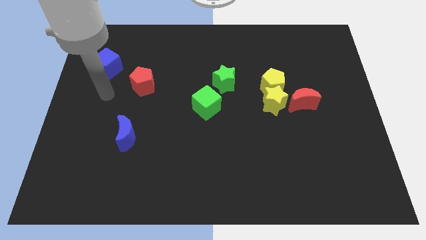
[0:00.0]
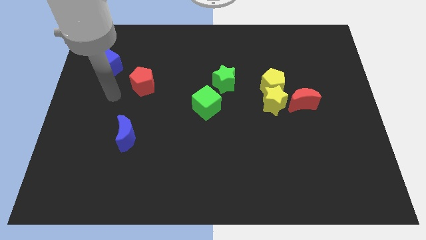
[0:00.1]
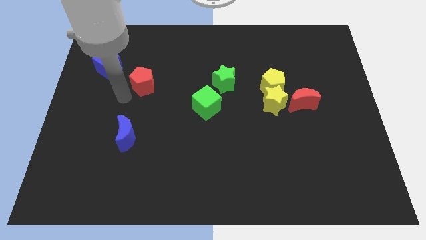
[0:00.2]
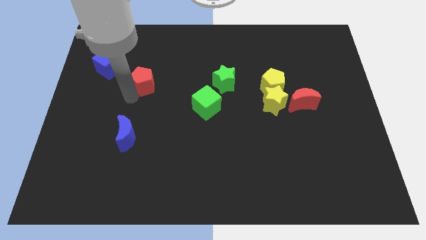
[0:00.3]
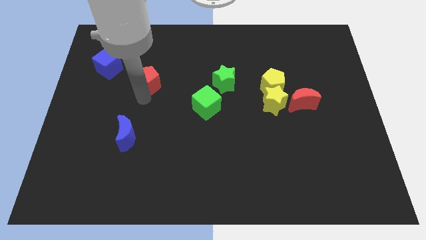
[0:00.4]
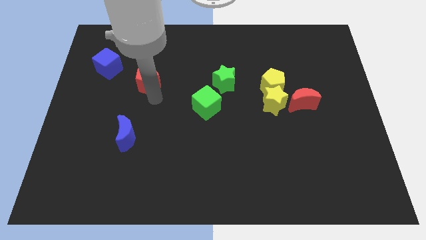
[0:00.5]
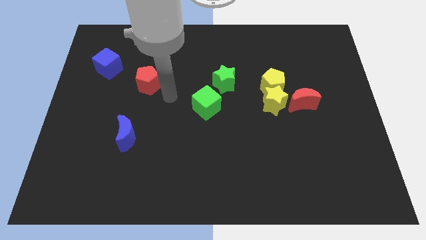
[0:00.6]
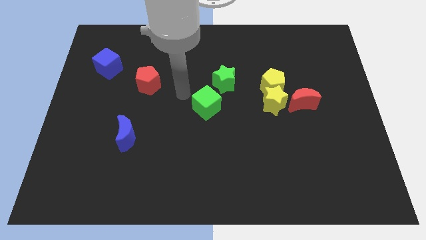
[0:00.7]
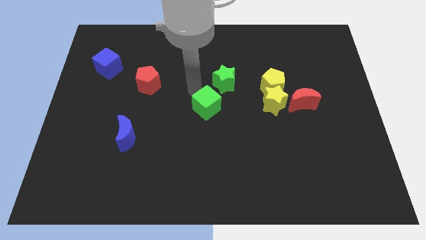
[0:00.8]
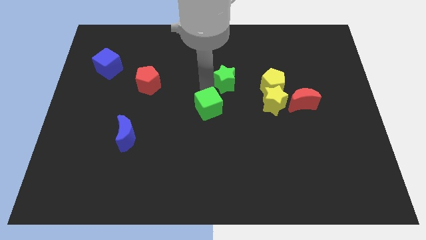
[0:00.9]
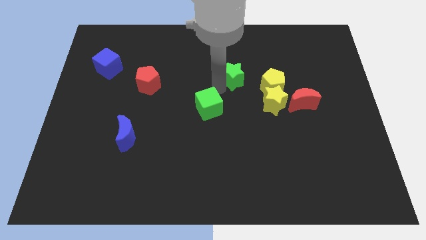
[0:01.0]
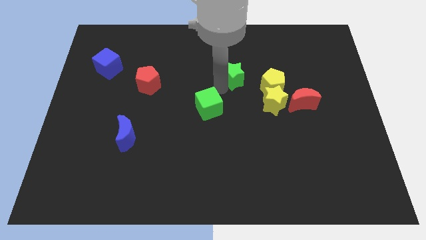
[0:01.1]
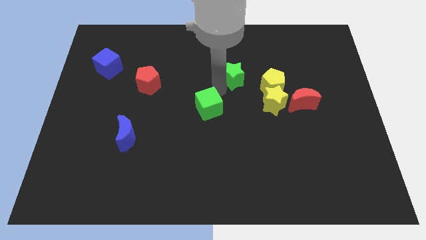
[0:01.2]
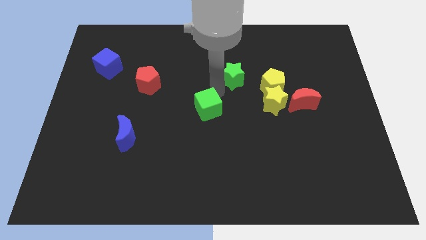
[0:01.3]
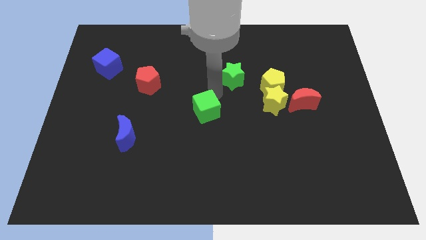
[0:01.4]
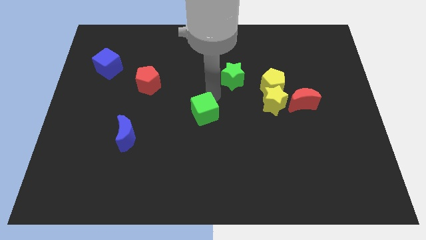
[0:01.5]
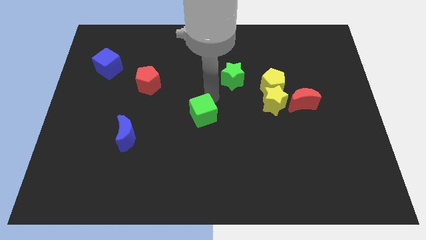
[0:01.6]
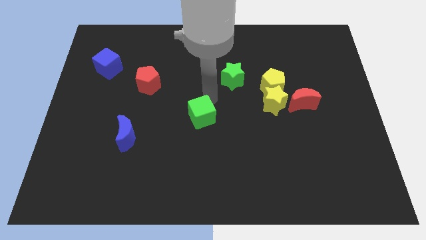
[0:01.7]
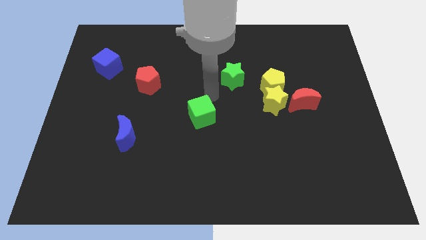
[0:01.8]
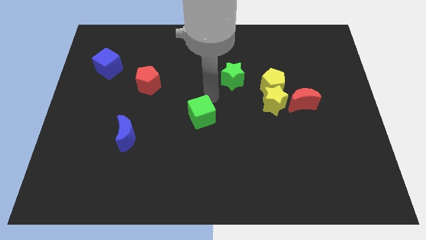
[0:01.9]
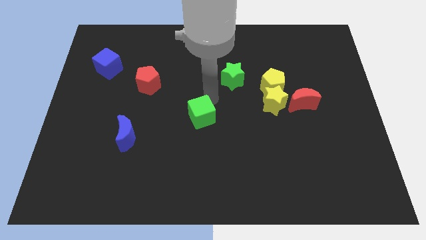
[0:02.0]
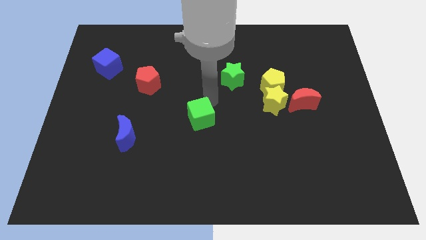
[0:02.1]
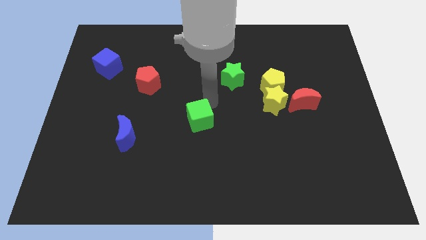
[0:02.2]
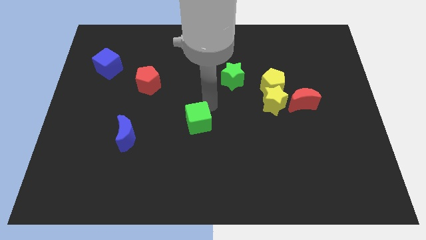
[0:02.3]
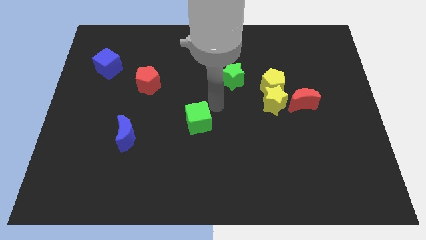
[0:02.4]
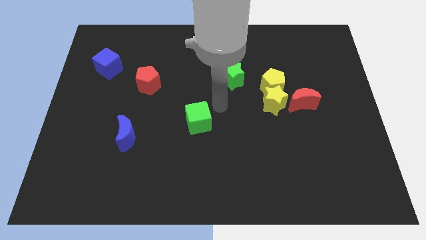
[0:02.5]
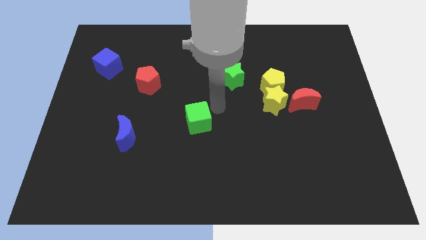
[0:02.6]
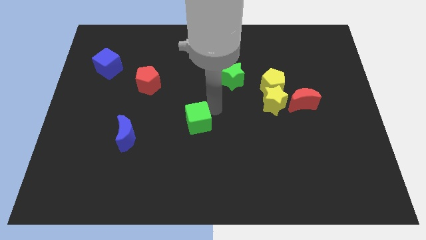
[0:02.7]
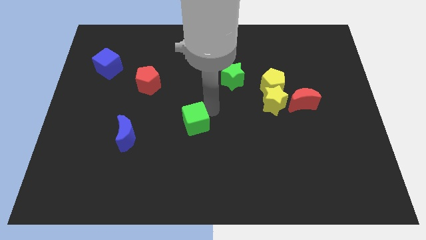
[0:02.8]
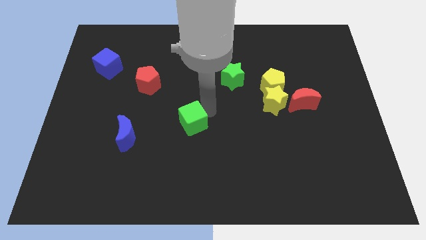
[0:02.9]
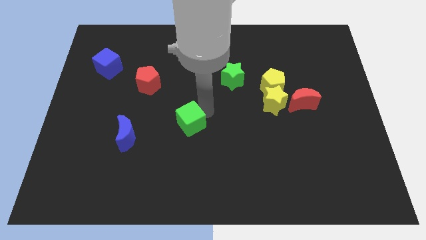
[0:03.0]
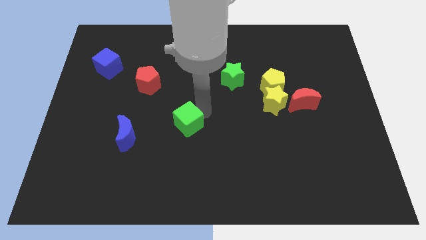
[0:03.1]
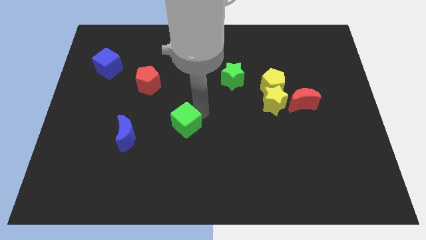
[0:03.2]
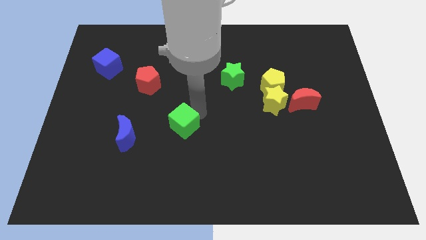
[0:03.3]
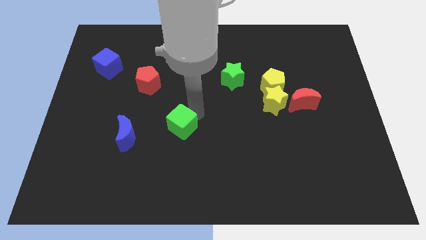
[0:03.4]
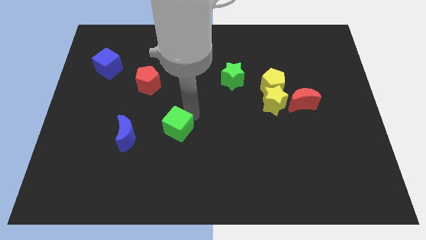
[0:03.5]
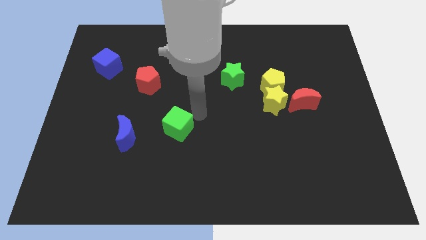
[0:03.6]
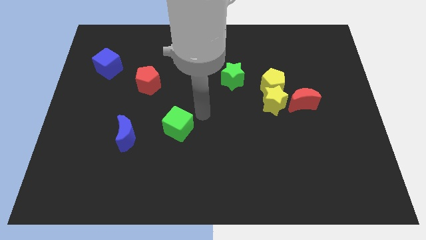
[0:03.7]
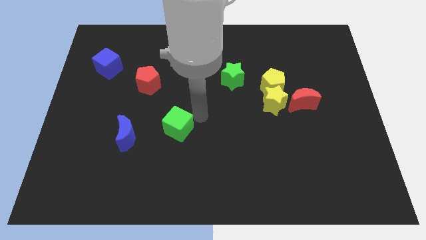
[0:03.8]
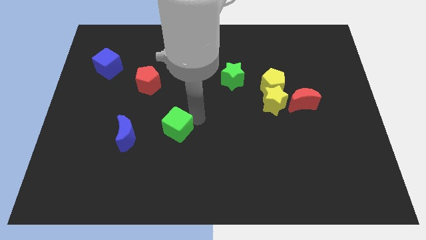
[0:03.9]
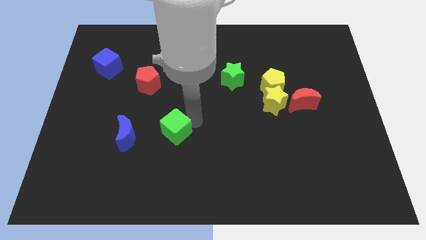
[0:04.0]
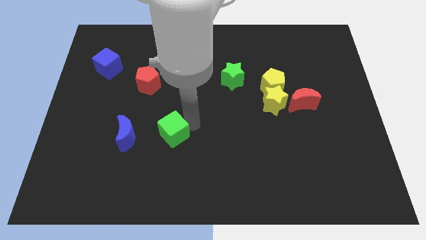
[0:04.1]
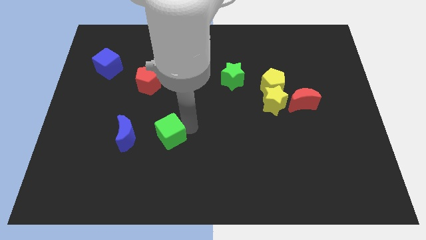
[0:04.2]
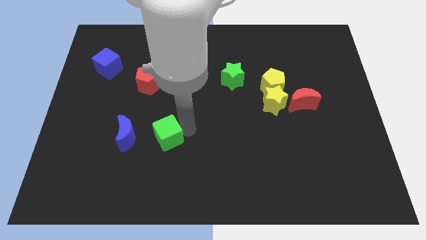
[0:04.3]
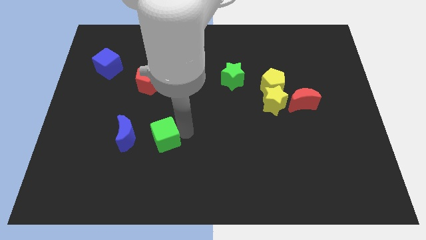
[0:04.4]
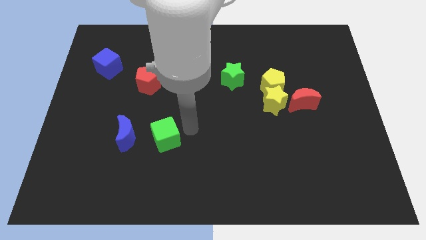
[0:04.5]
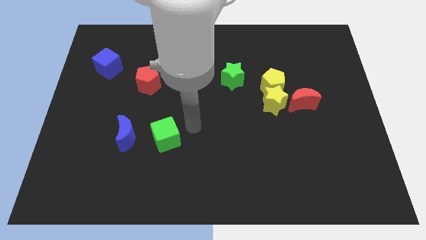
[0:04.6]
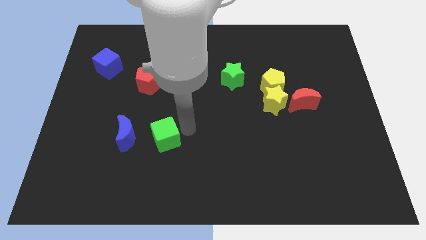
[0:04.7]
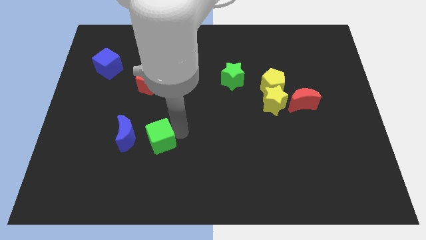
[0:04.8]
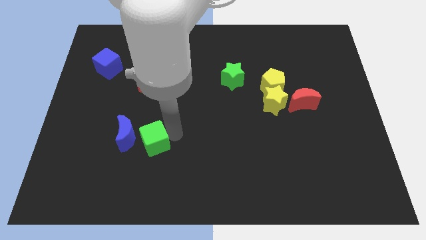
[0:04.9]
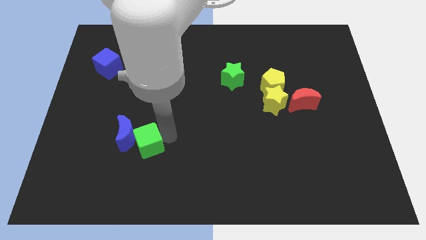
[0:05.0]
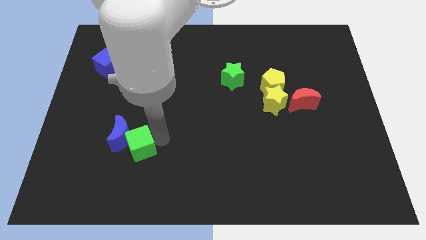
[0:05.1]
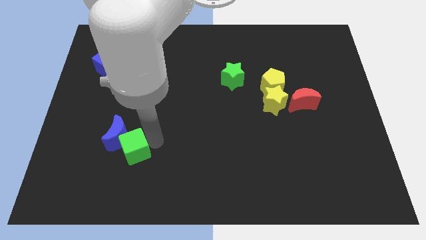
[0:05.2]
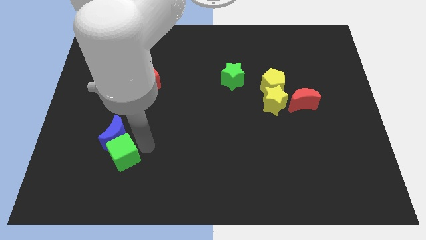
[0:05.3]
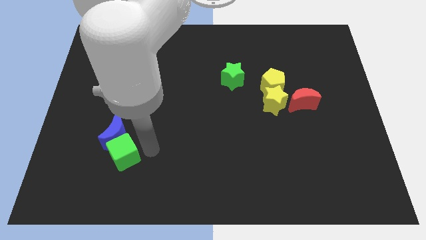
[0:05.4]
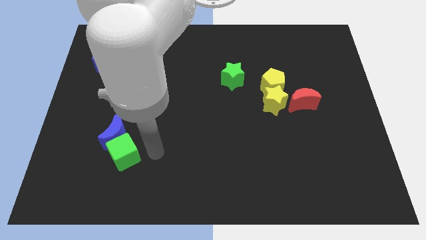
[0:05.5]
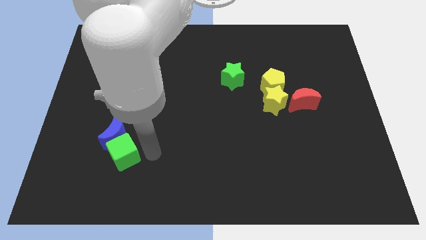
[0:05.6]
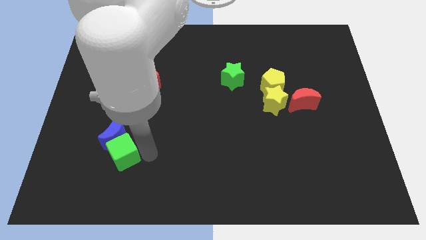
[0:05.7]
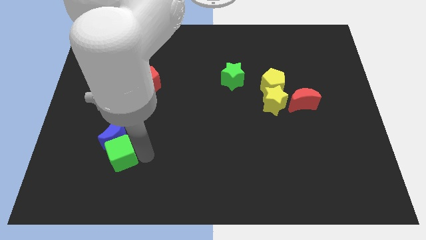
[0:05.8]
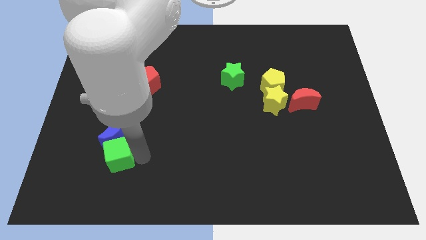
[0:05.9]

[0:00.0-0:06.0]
move the green cube to the bottom left of the blue moon
